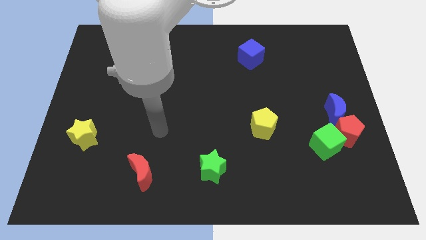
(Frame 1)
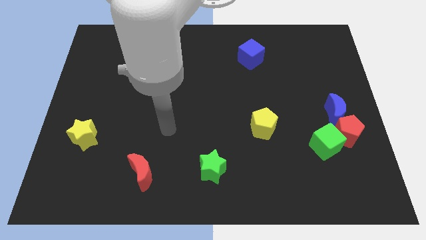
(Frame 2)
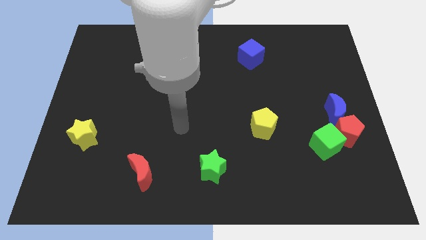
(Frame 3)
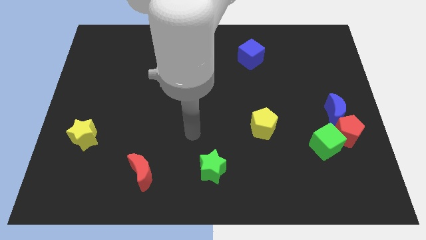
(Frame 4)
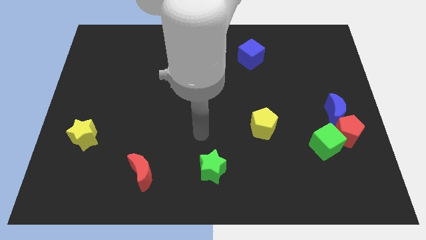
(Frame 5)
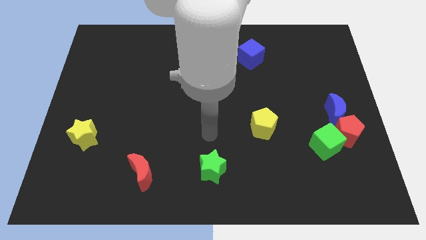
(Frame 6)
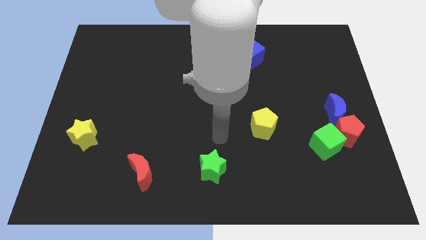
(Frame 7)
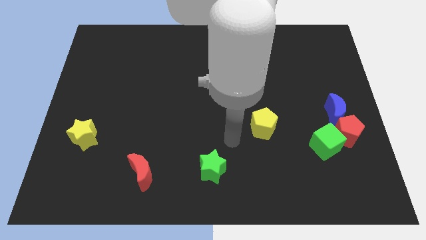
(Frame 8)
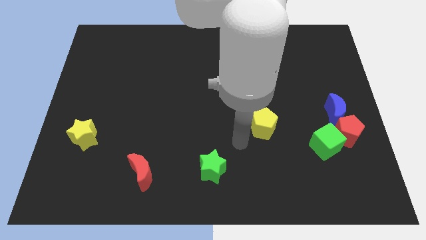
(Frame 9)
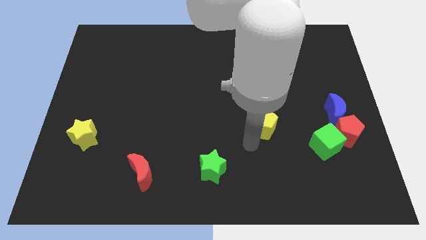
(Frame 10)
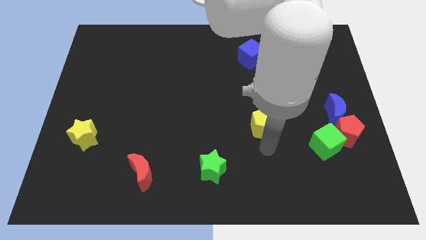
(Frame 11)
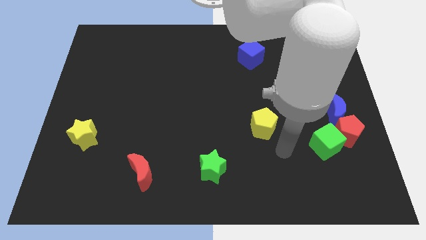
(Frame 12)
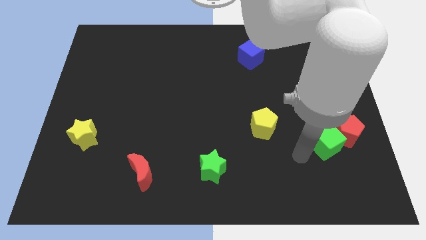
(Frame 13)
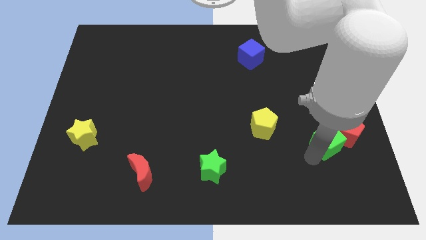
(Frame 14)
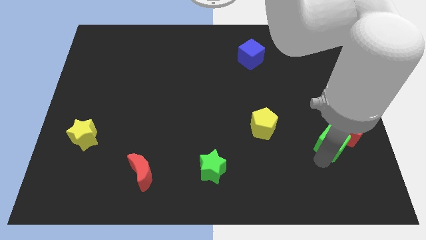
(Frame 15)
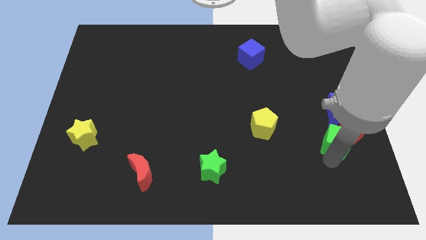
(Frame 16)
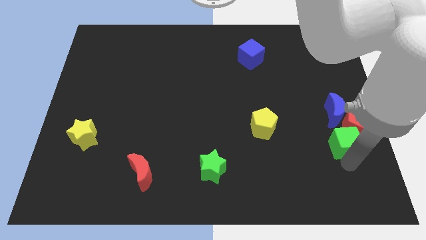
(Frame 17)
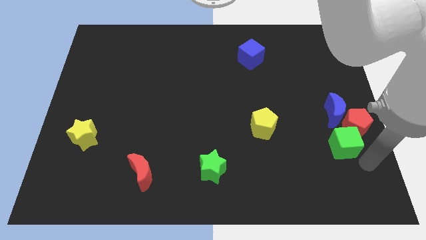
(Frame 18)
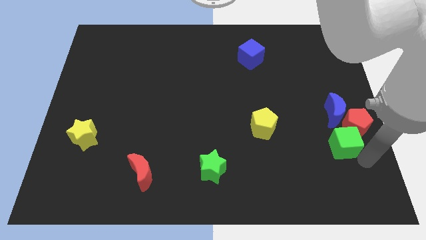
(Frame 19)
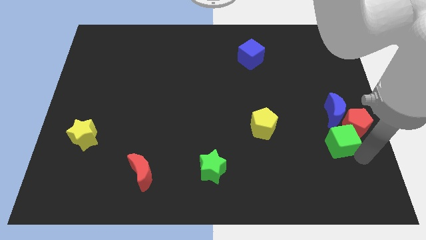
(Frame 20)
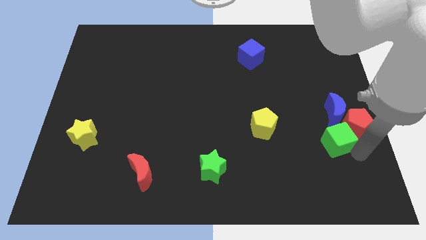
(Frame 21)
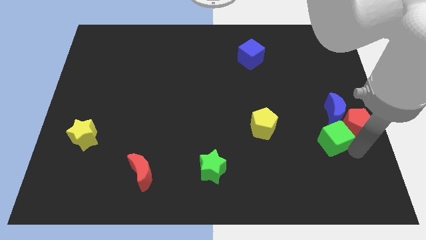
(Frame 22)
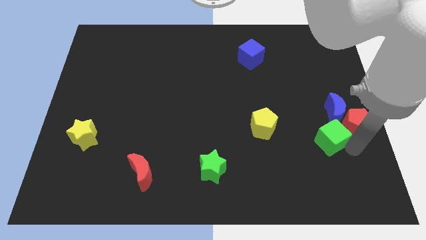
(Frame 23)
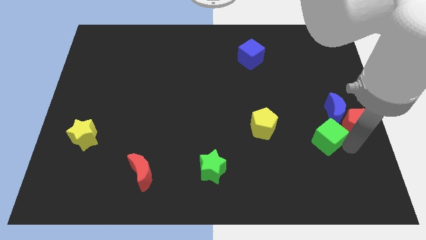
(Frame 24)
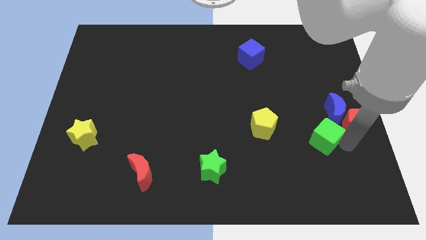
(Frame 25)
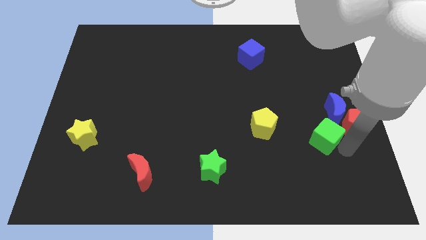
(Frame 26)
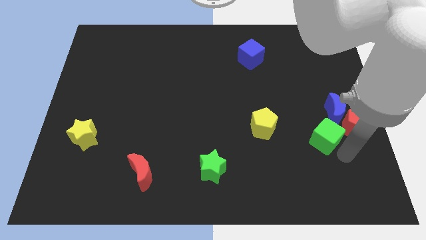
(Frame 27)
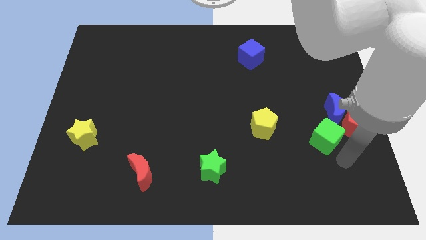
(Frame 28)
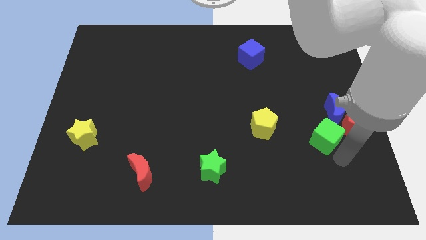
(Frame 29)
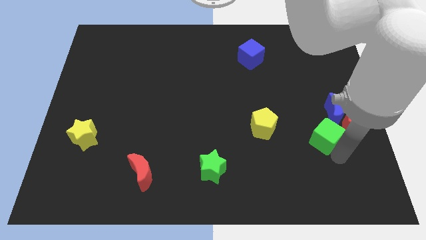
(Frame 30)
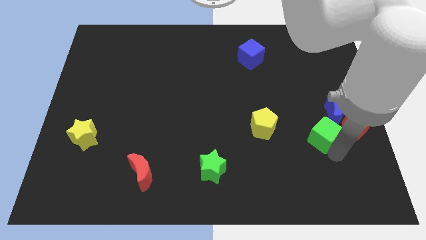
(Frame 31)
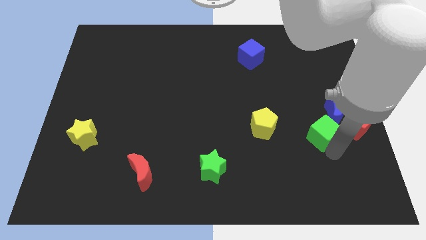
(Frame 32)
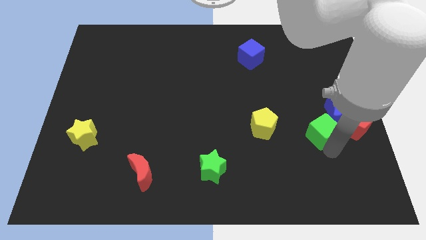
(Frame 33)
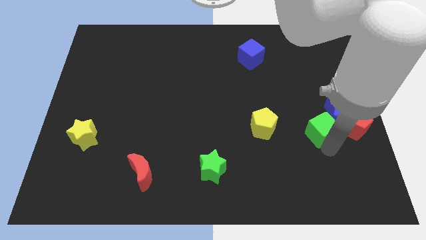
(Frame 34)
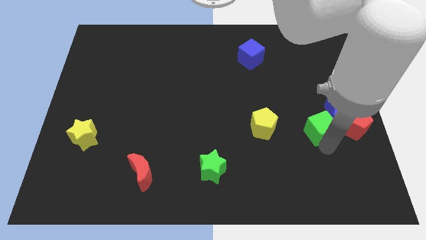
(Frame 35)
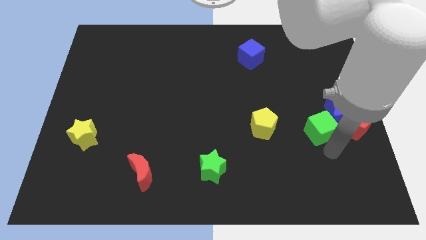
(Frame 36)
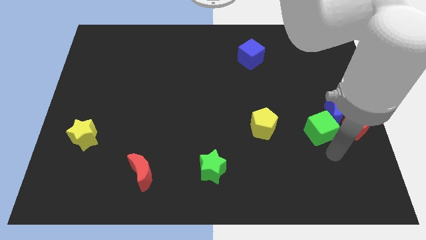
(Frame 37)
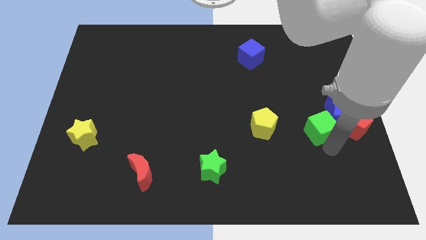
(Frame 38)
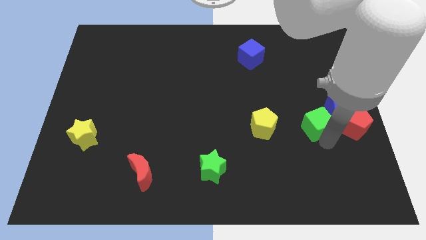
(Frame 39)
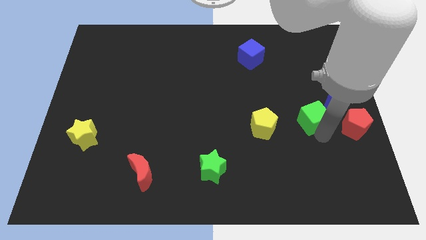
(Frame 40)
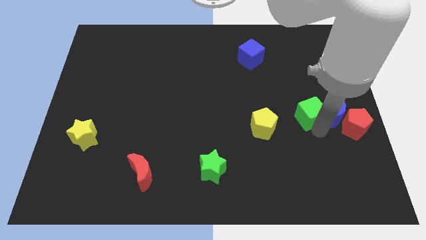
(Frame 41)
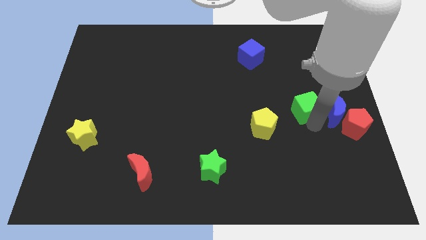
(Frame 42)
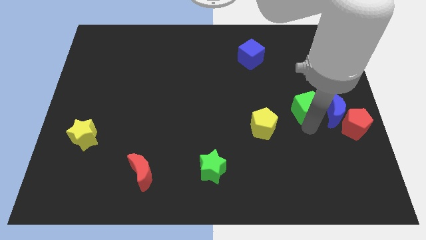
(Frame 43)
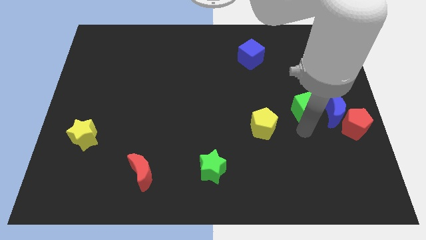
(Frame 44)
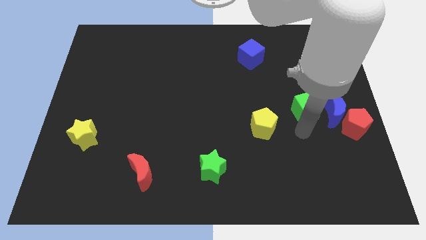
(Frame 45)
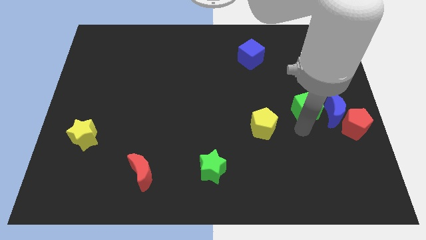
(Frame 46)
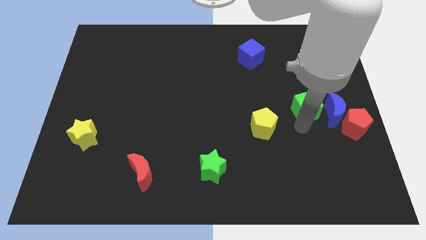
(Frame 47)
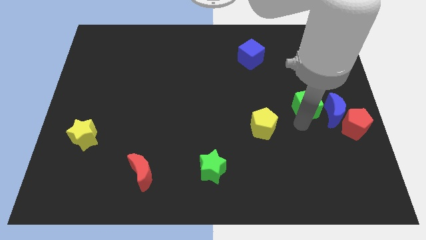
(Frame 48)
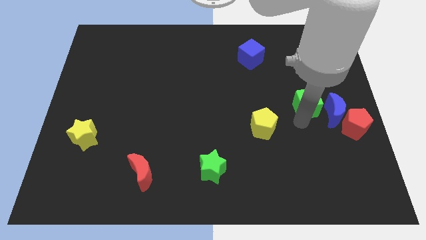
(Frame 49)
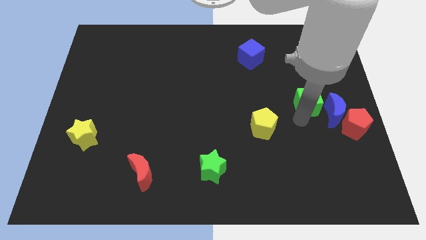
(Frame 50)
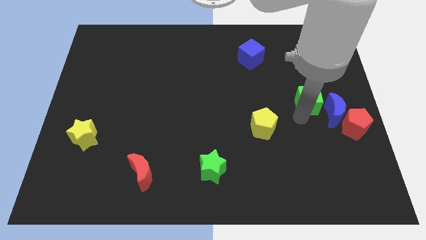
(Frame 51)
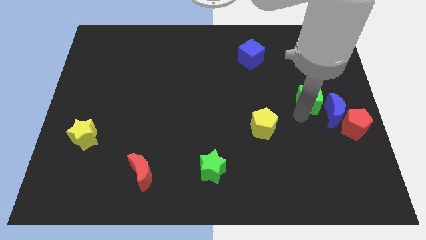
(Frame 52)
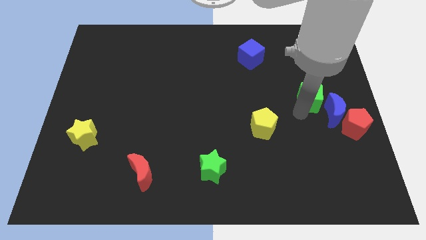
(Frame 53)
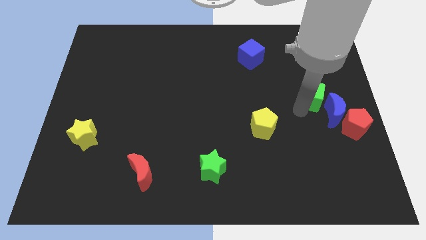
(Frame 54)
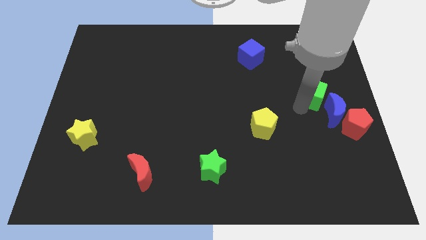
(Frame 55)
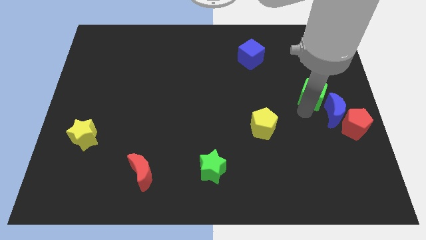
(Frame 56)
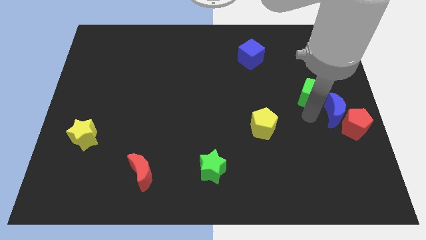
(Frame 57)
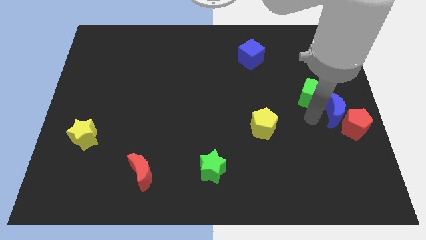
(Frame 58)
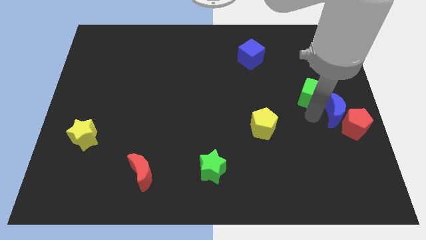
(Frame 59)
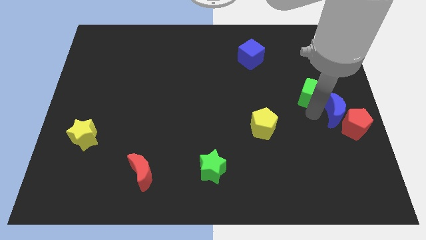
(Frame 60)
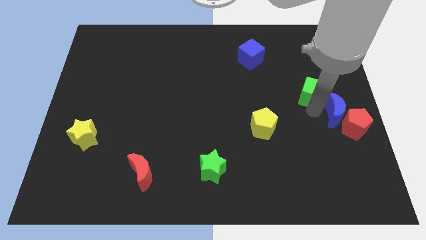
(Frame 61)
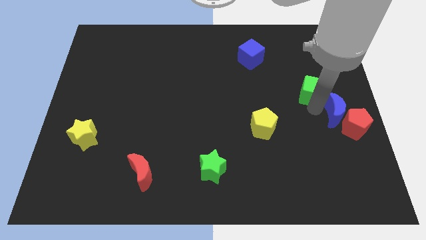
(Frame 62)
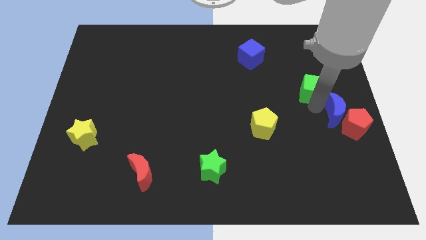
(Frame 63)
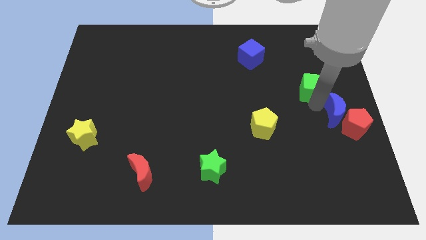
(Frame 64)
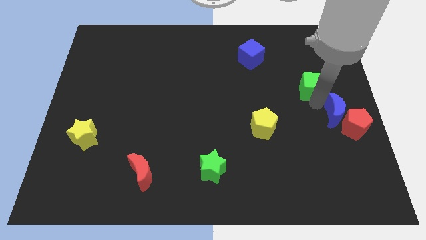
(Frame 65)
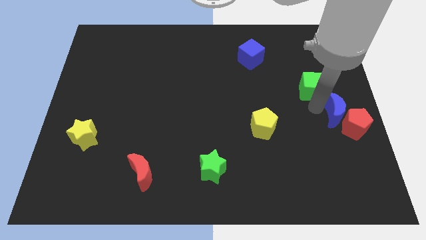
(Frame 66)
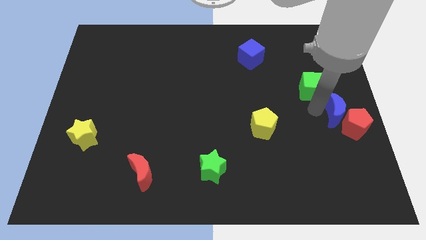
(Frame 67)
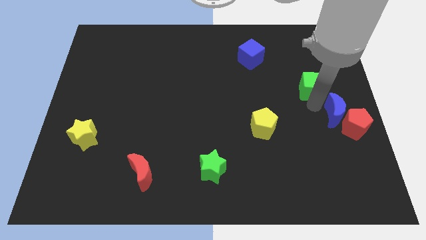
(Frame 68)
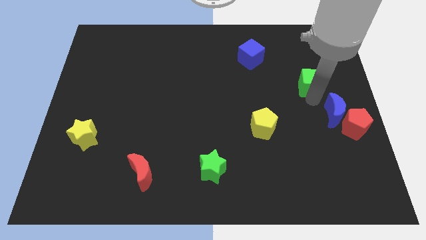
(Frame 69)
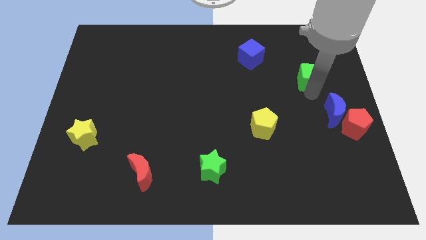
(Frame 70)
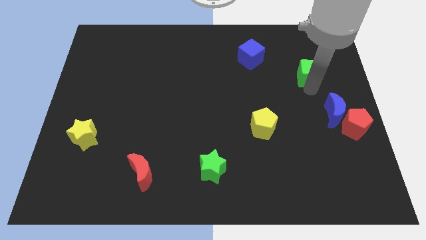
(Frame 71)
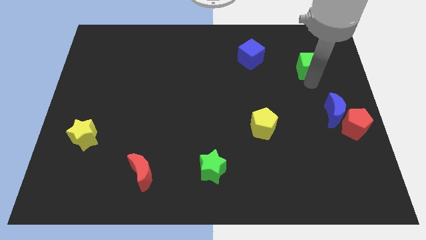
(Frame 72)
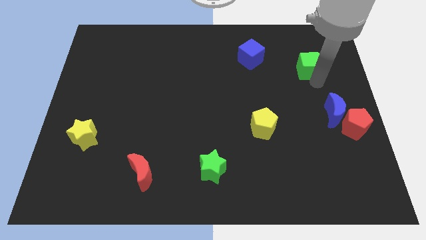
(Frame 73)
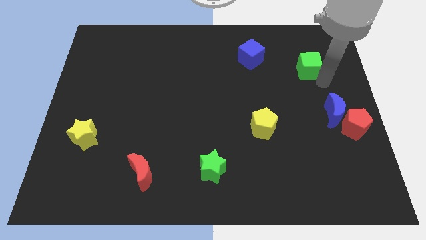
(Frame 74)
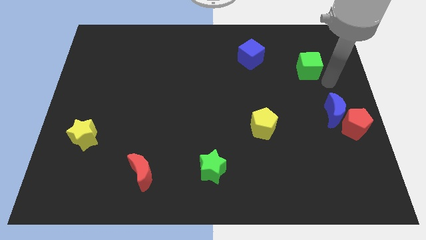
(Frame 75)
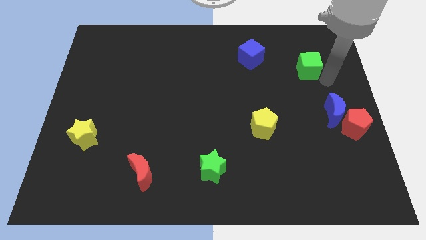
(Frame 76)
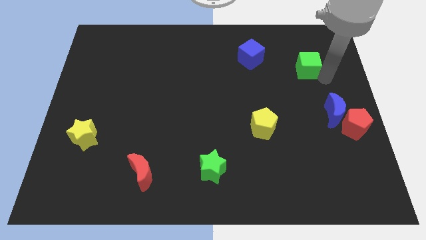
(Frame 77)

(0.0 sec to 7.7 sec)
put the green cube to the right side of the blue cube
